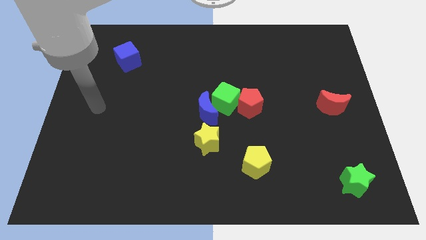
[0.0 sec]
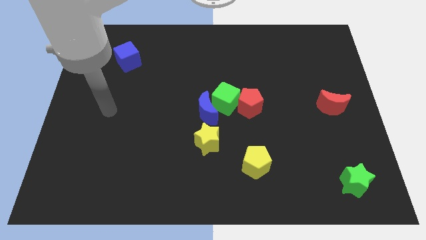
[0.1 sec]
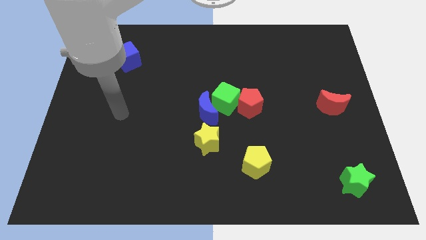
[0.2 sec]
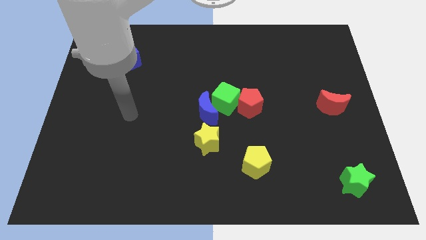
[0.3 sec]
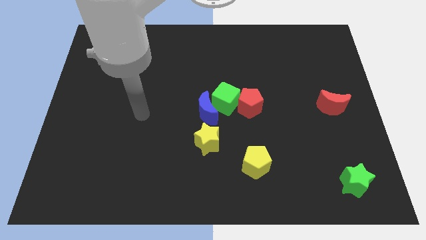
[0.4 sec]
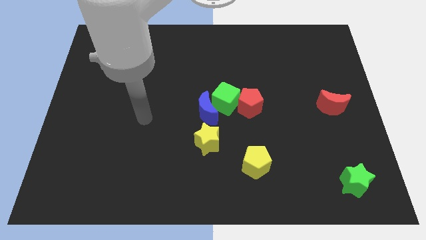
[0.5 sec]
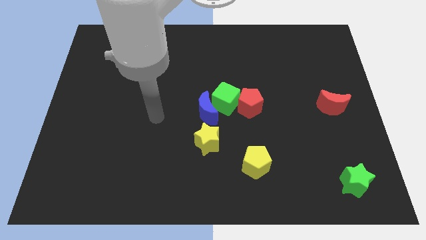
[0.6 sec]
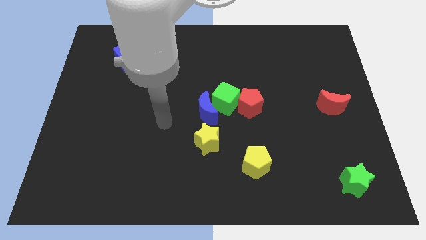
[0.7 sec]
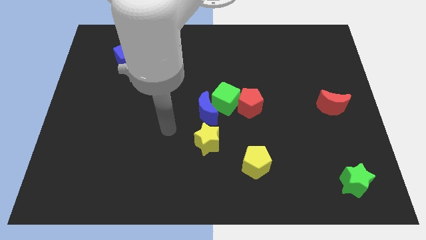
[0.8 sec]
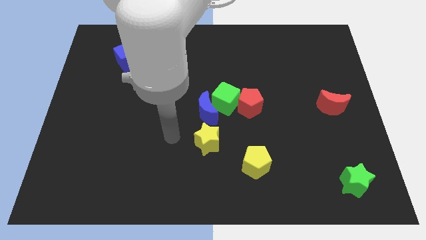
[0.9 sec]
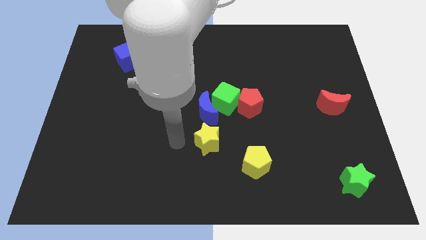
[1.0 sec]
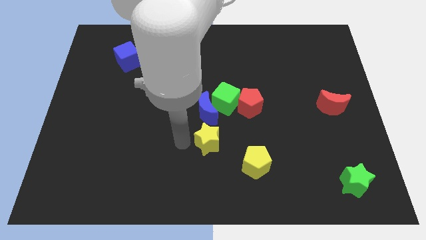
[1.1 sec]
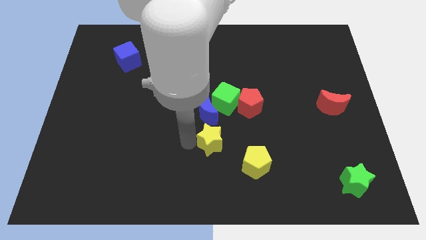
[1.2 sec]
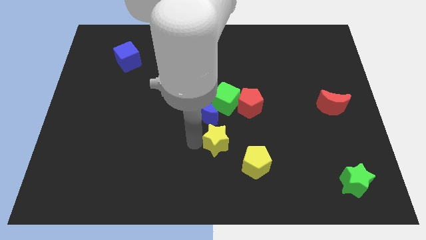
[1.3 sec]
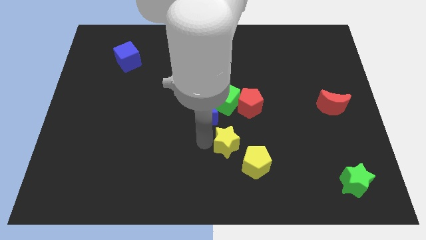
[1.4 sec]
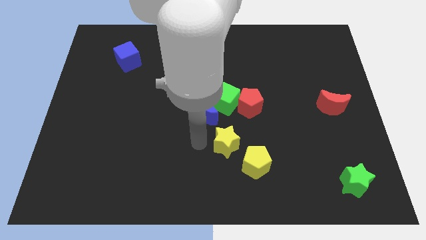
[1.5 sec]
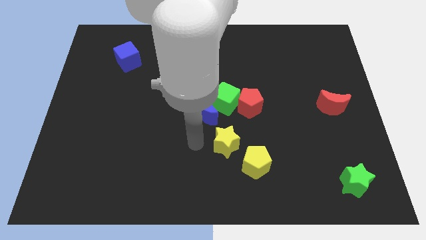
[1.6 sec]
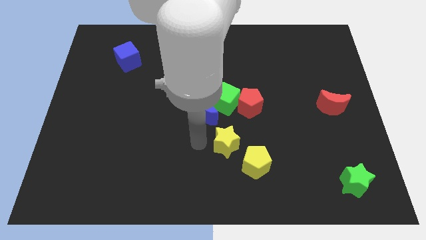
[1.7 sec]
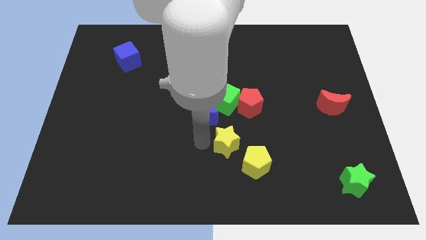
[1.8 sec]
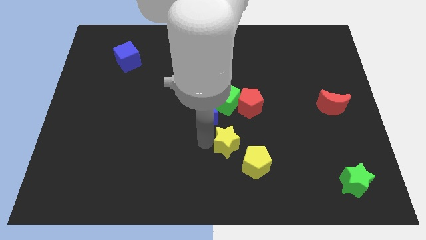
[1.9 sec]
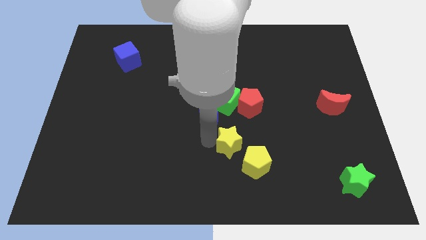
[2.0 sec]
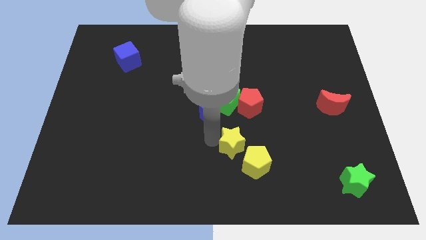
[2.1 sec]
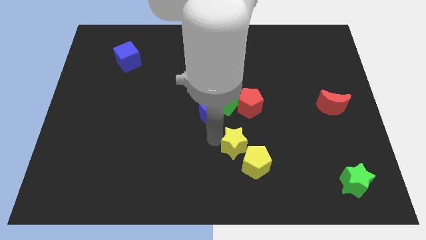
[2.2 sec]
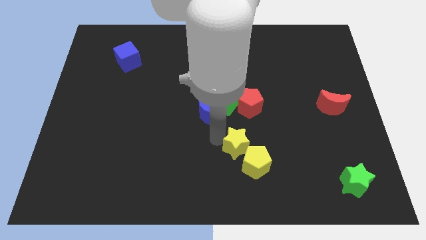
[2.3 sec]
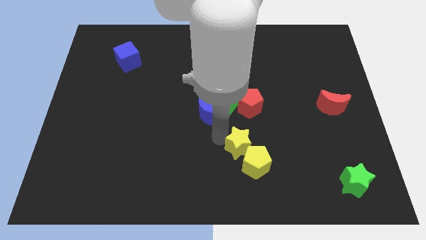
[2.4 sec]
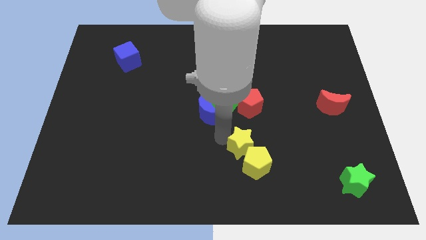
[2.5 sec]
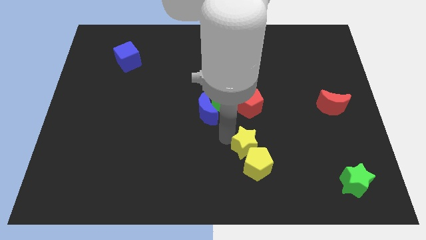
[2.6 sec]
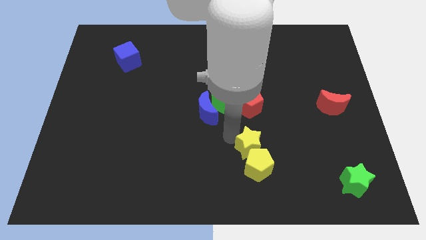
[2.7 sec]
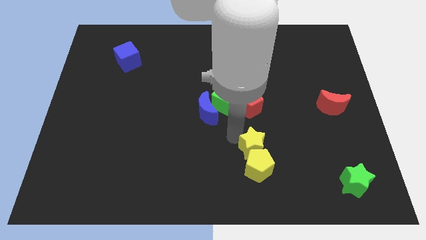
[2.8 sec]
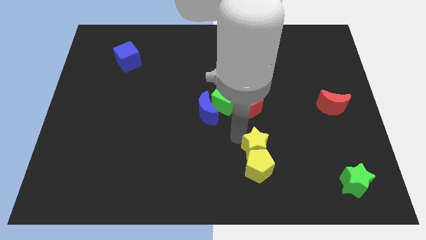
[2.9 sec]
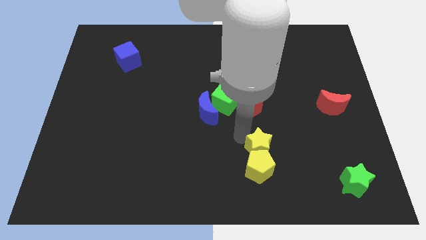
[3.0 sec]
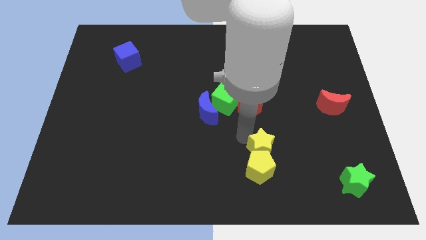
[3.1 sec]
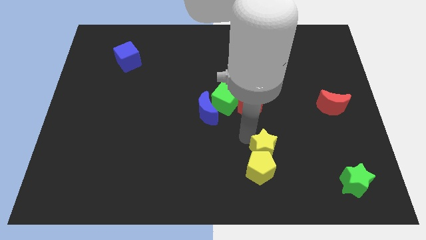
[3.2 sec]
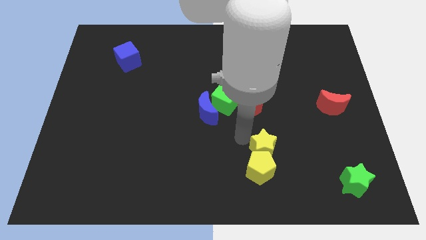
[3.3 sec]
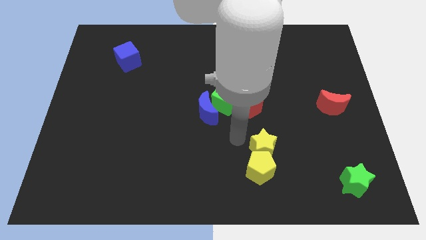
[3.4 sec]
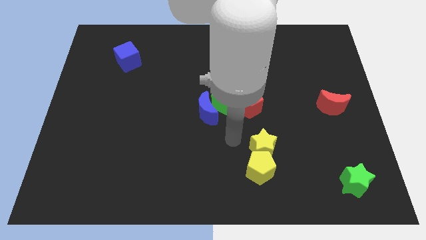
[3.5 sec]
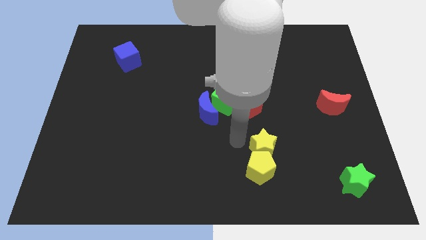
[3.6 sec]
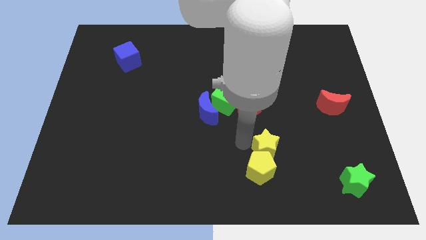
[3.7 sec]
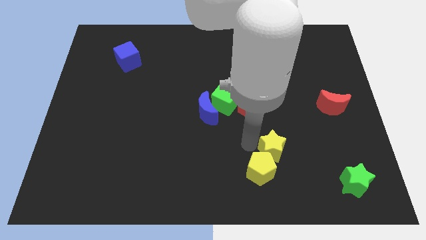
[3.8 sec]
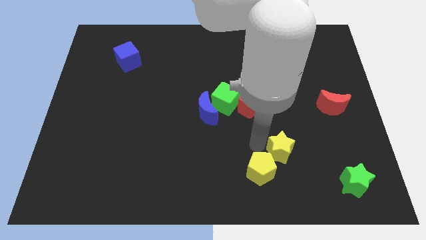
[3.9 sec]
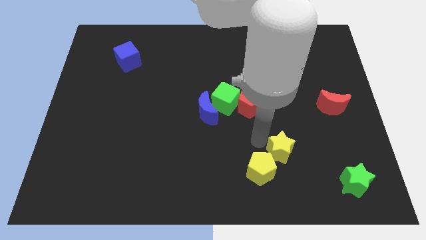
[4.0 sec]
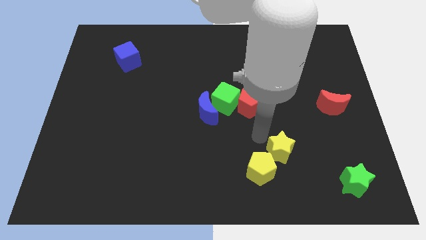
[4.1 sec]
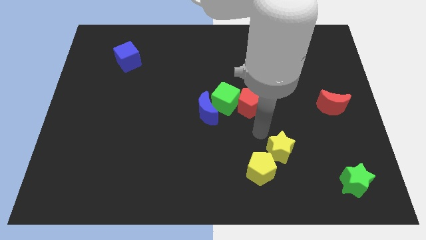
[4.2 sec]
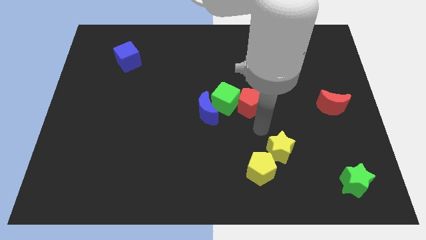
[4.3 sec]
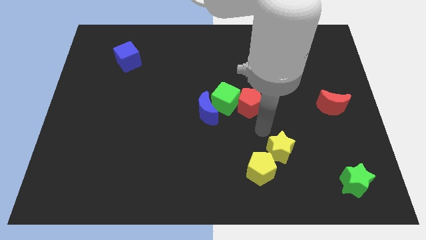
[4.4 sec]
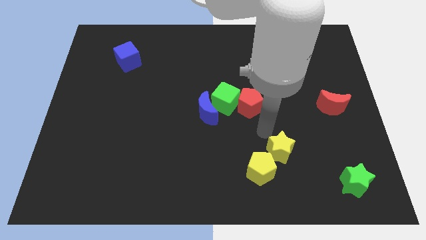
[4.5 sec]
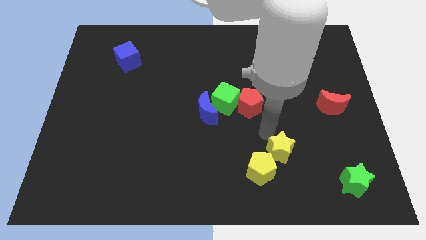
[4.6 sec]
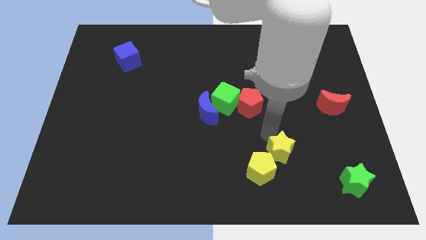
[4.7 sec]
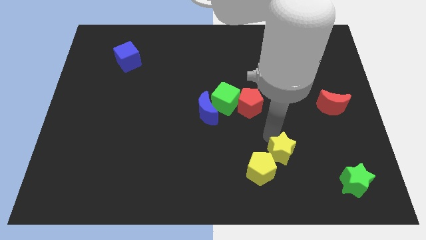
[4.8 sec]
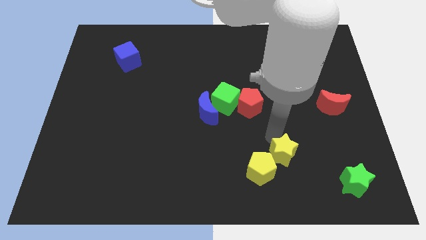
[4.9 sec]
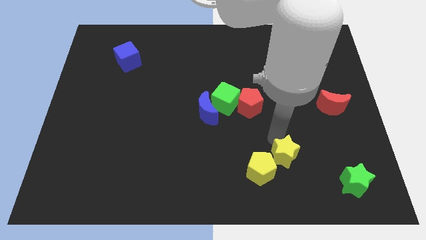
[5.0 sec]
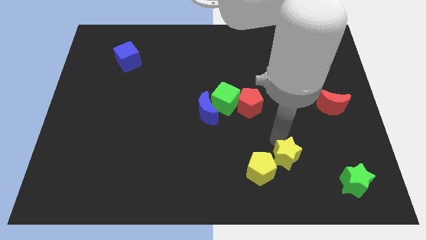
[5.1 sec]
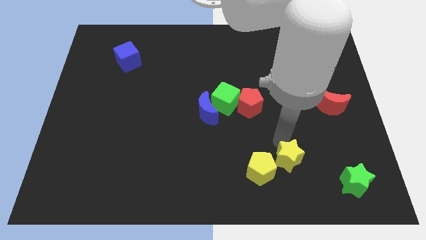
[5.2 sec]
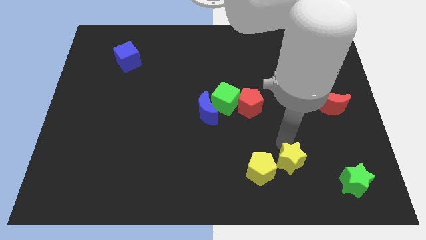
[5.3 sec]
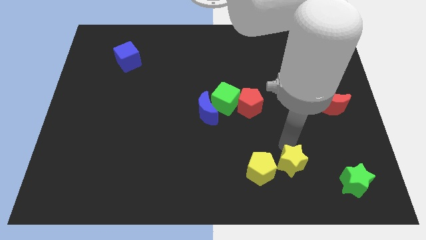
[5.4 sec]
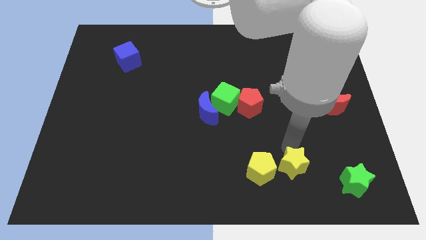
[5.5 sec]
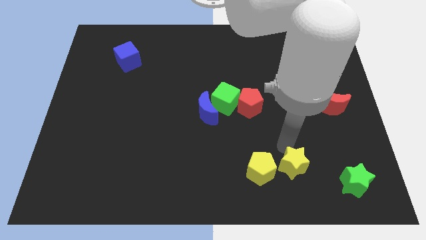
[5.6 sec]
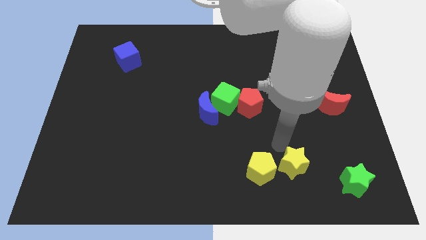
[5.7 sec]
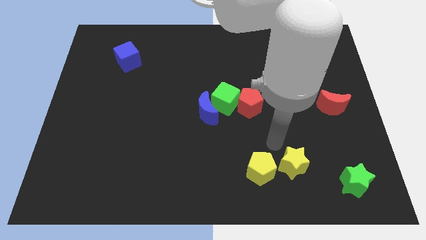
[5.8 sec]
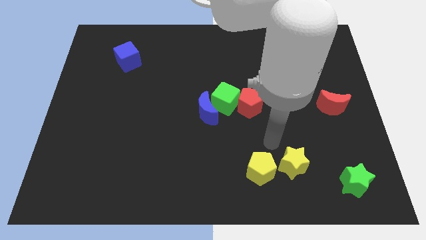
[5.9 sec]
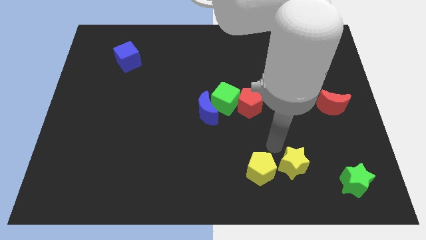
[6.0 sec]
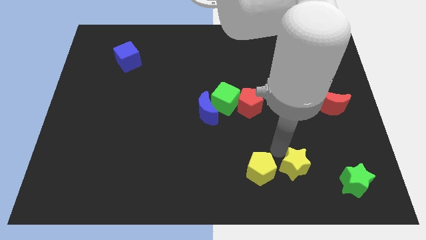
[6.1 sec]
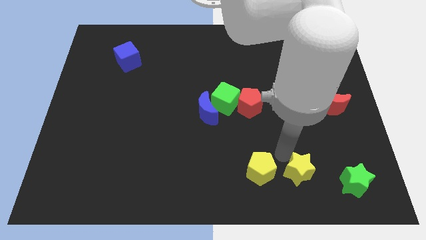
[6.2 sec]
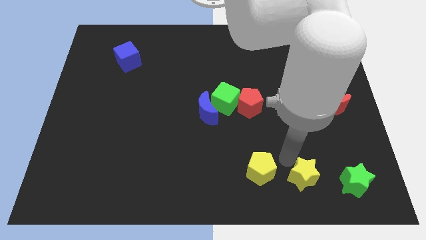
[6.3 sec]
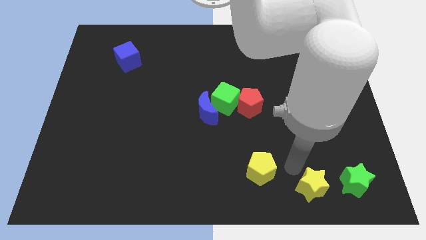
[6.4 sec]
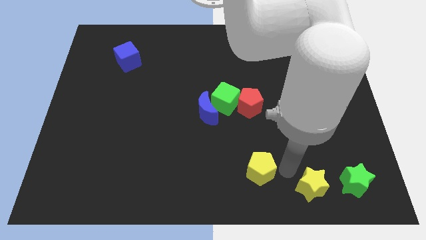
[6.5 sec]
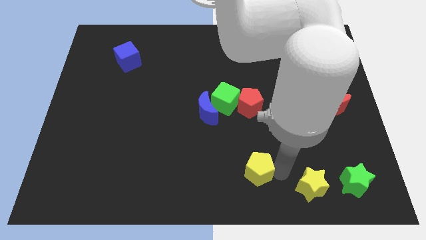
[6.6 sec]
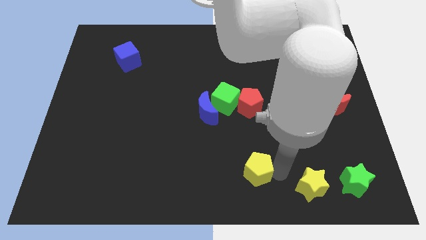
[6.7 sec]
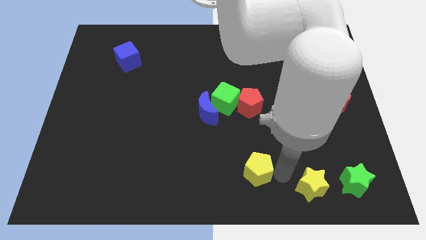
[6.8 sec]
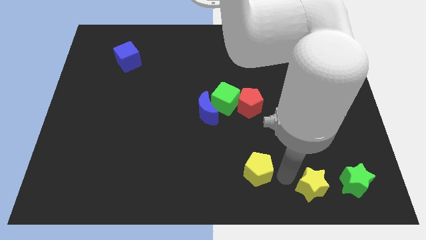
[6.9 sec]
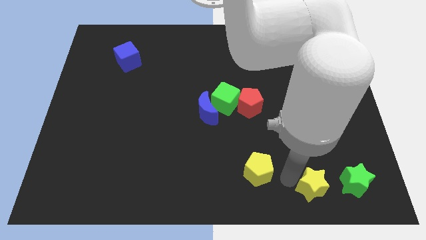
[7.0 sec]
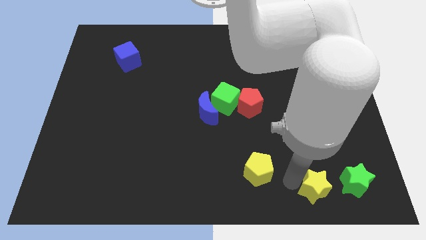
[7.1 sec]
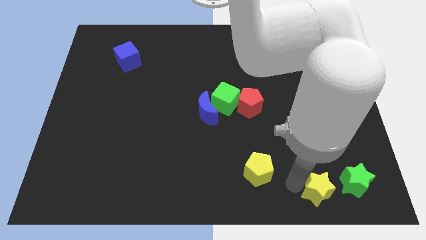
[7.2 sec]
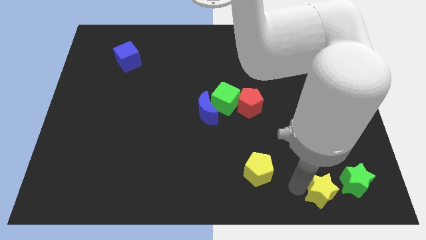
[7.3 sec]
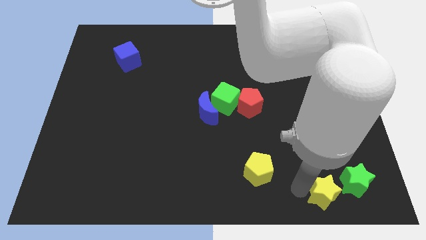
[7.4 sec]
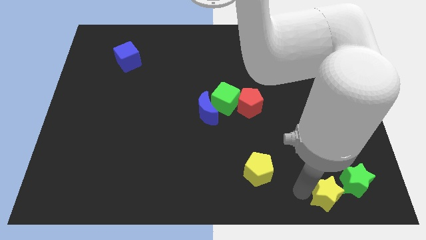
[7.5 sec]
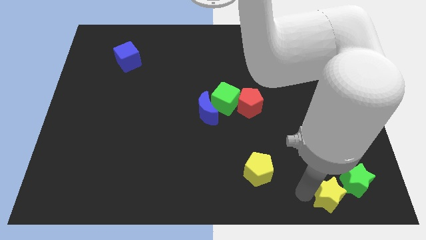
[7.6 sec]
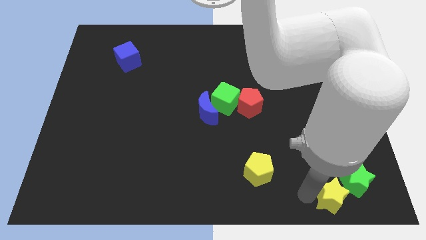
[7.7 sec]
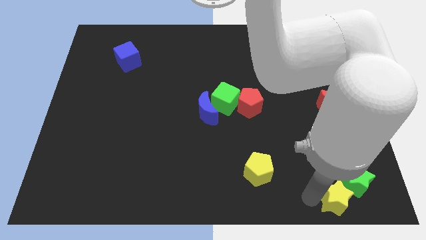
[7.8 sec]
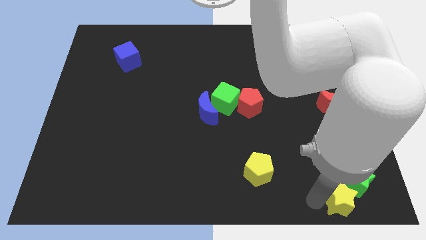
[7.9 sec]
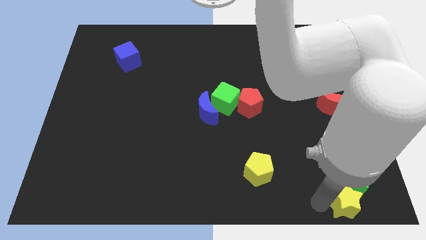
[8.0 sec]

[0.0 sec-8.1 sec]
push the yellow star to the bottom right
